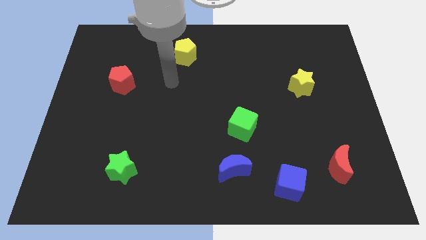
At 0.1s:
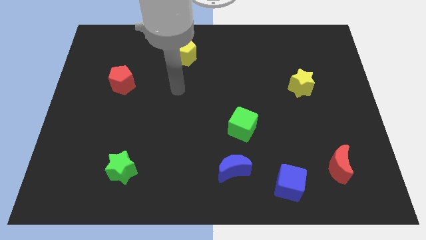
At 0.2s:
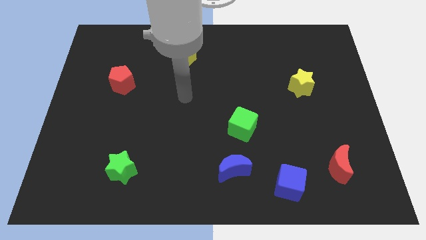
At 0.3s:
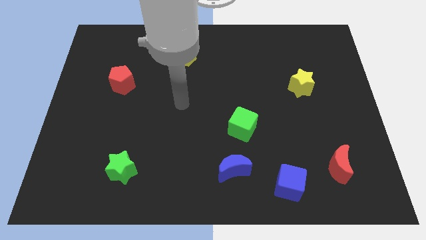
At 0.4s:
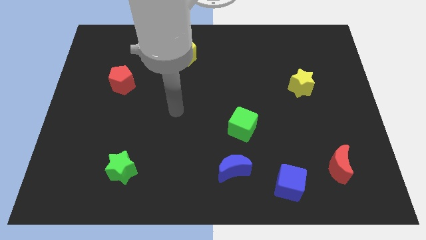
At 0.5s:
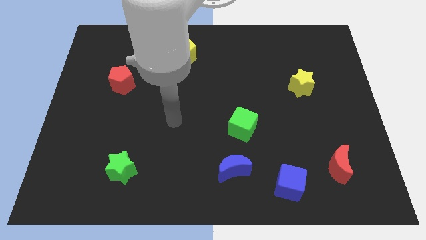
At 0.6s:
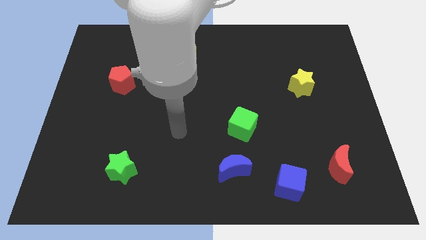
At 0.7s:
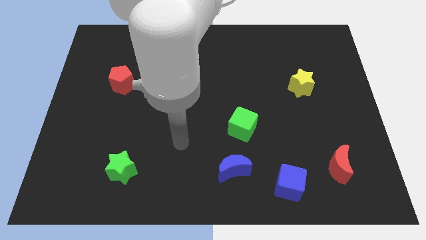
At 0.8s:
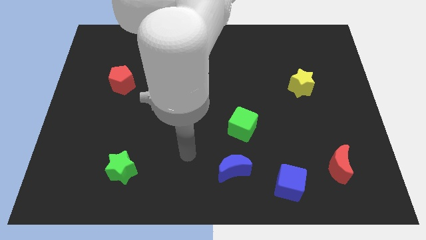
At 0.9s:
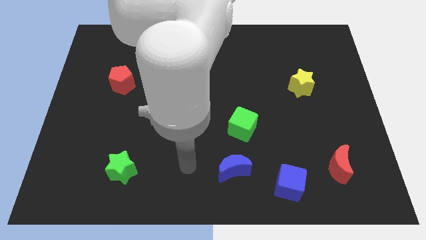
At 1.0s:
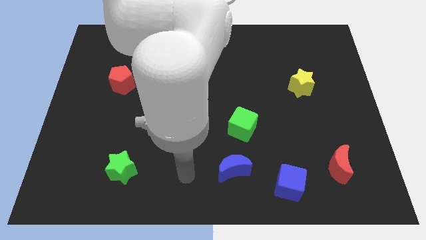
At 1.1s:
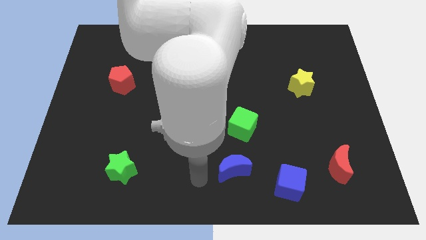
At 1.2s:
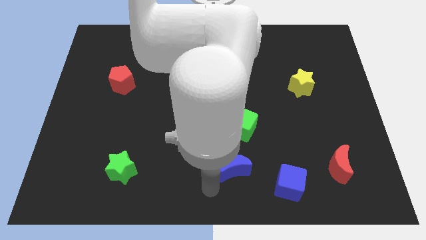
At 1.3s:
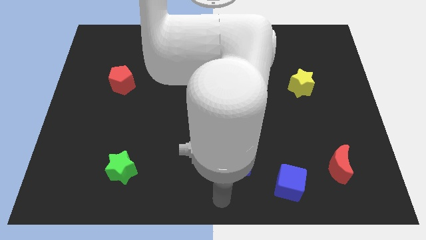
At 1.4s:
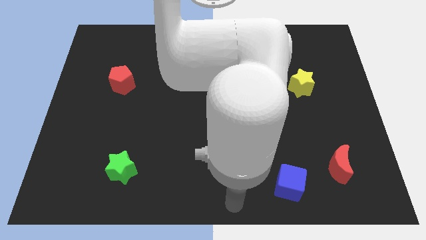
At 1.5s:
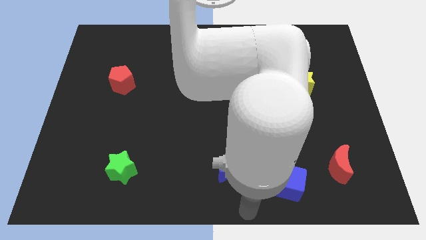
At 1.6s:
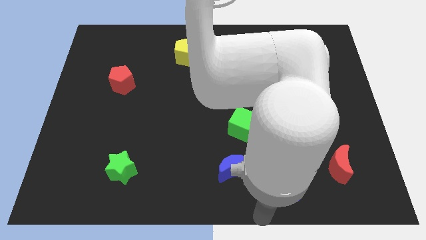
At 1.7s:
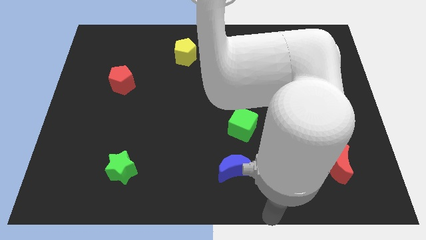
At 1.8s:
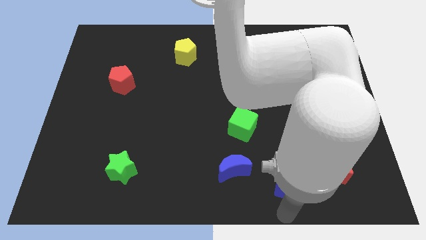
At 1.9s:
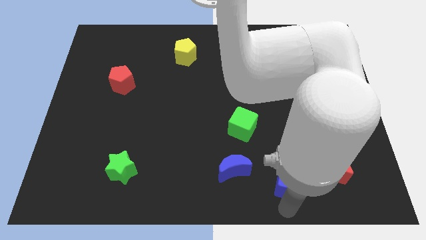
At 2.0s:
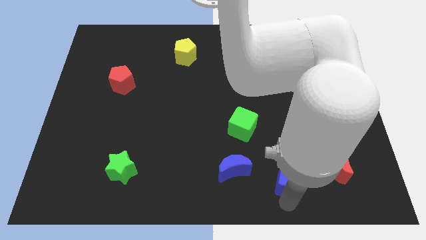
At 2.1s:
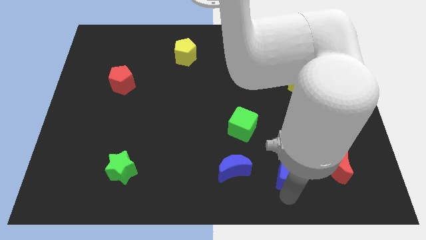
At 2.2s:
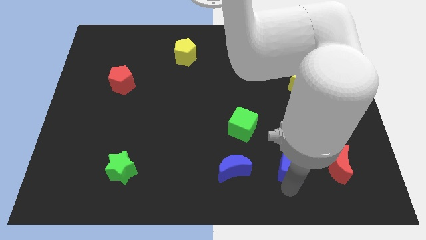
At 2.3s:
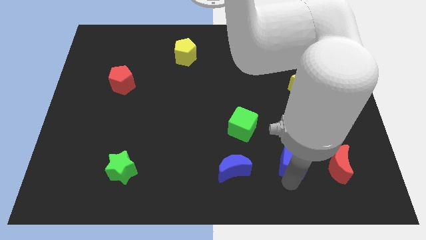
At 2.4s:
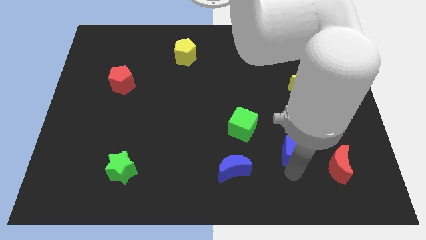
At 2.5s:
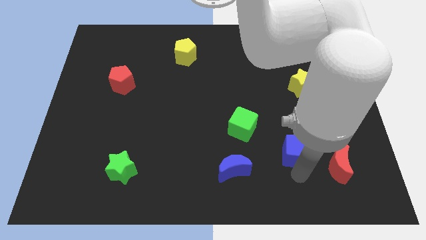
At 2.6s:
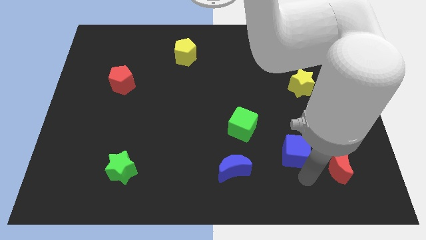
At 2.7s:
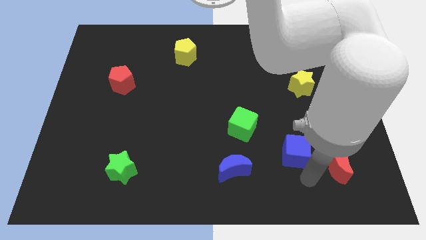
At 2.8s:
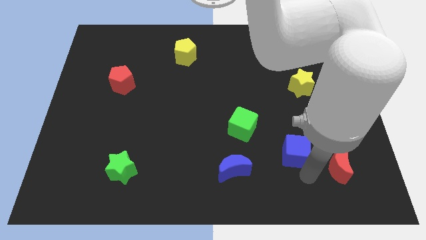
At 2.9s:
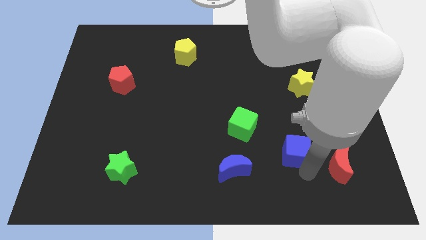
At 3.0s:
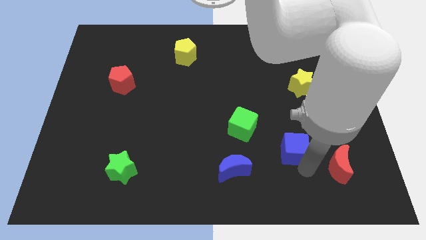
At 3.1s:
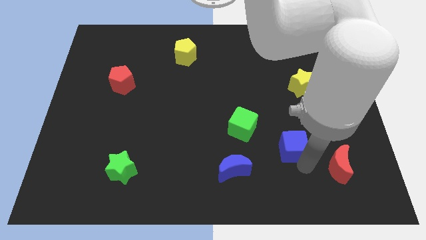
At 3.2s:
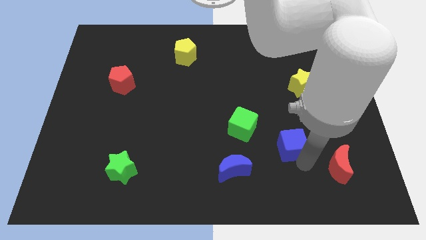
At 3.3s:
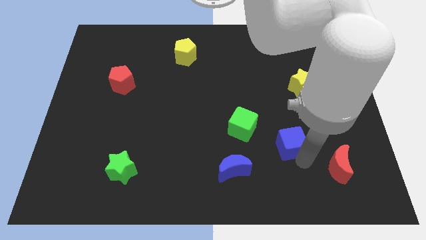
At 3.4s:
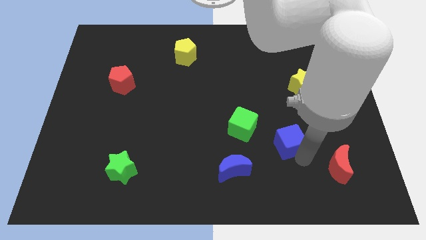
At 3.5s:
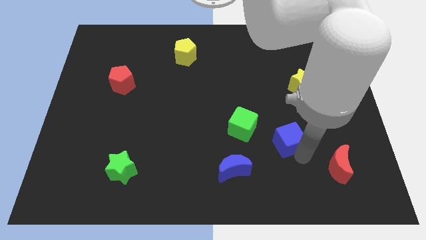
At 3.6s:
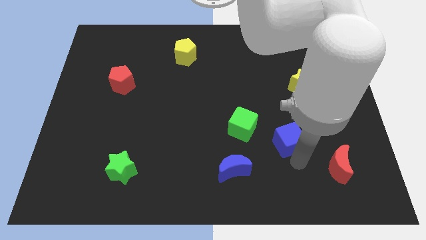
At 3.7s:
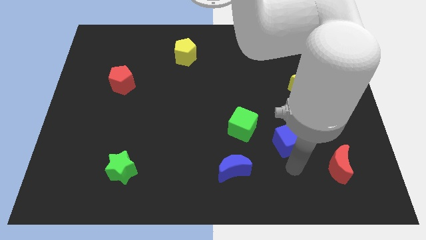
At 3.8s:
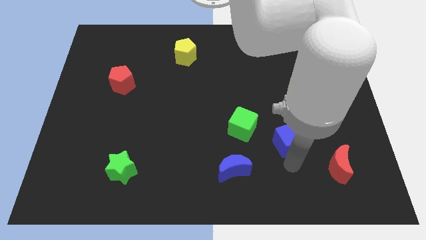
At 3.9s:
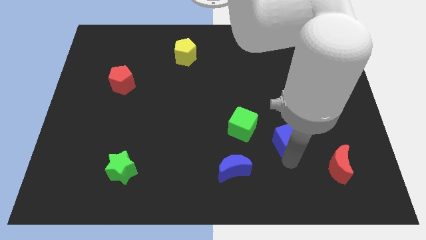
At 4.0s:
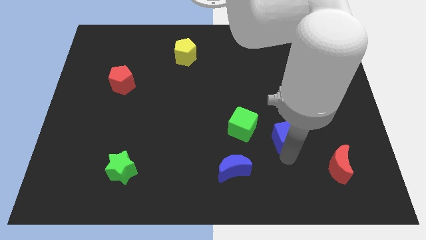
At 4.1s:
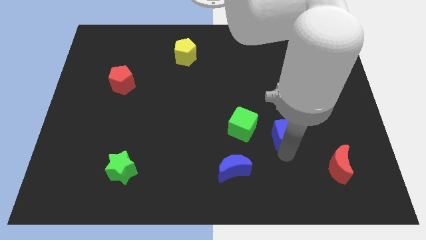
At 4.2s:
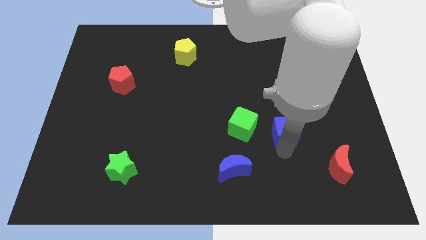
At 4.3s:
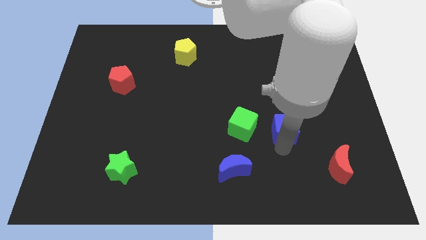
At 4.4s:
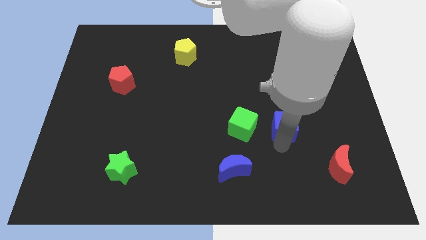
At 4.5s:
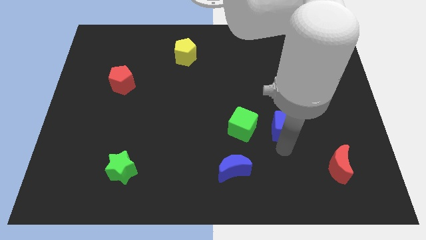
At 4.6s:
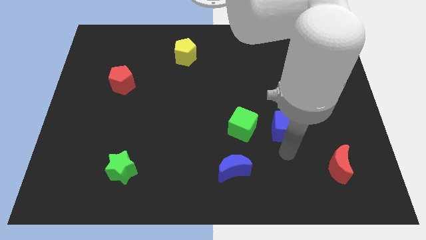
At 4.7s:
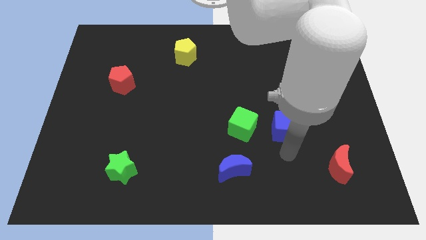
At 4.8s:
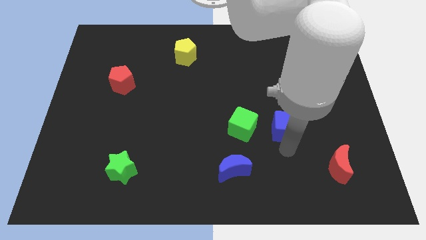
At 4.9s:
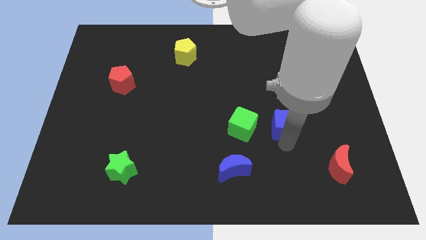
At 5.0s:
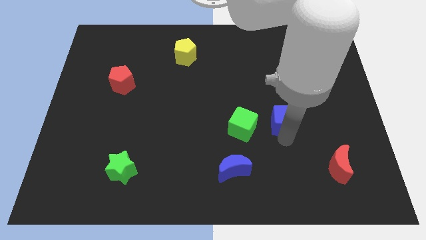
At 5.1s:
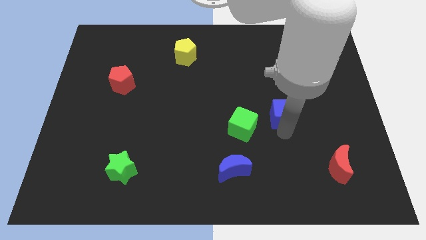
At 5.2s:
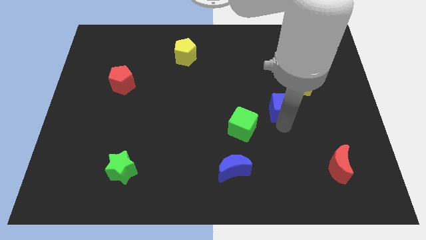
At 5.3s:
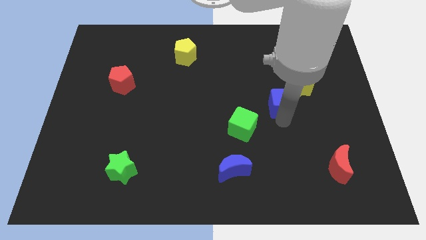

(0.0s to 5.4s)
move the blue cube up

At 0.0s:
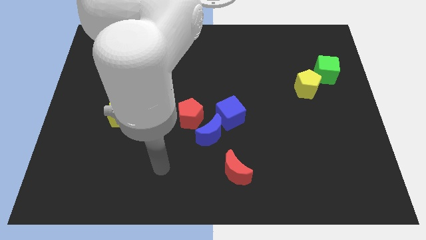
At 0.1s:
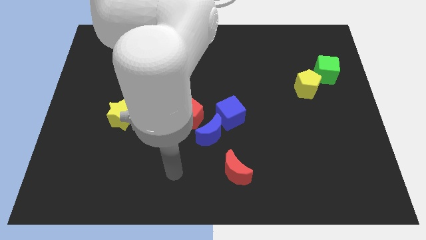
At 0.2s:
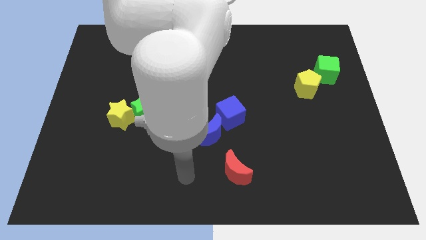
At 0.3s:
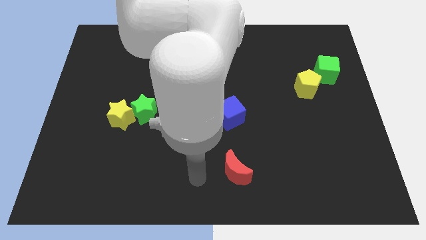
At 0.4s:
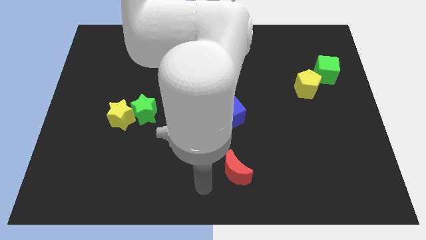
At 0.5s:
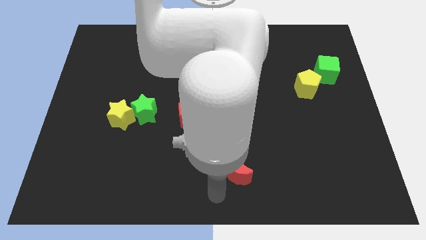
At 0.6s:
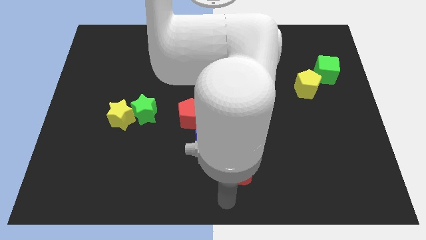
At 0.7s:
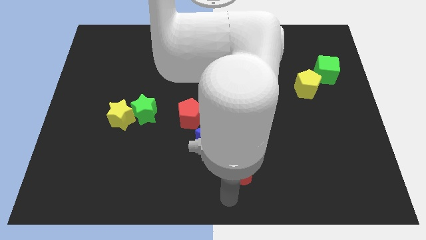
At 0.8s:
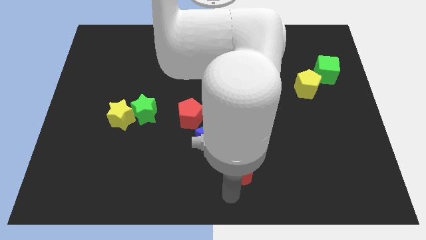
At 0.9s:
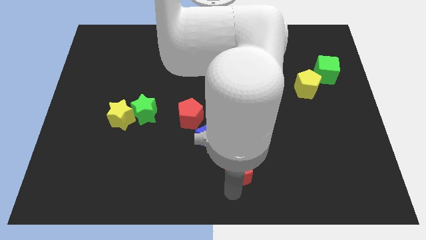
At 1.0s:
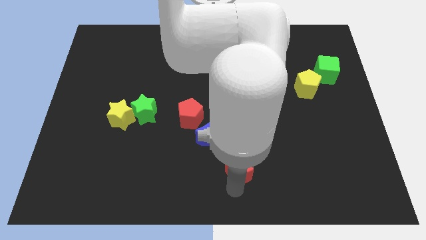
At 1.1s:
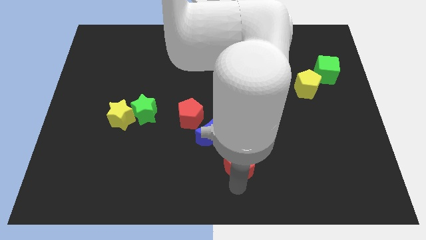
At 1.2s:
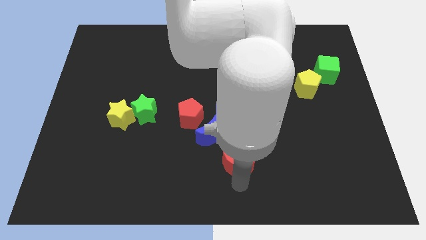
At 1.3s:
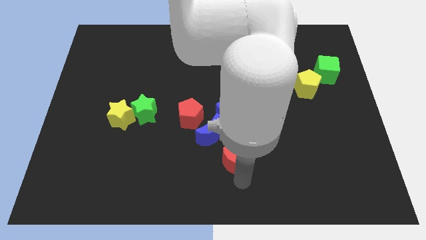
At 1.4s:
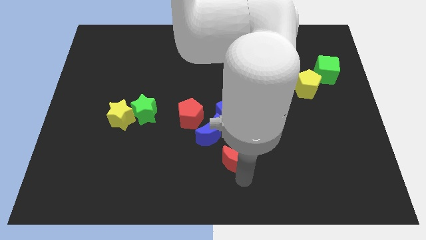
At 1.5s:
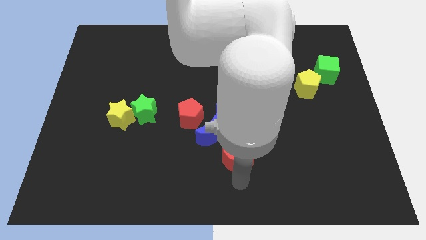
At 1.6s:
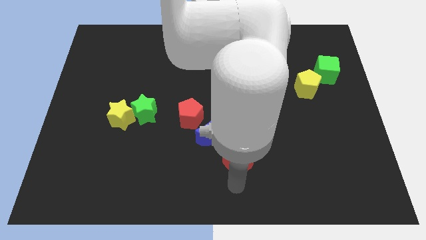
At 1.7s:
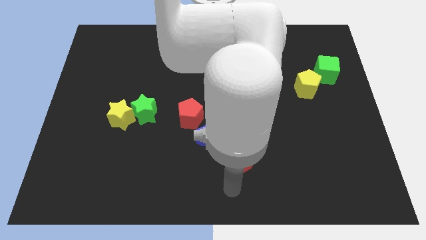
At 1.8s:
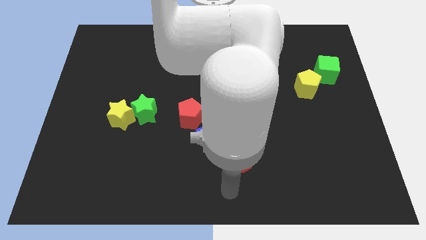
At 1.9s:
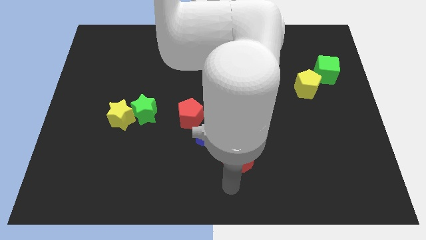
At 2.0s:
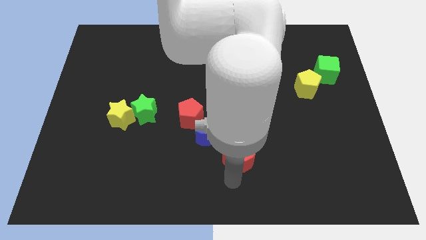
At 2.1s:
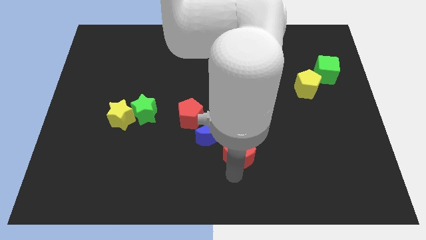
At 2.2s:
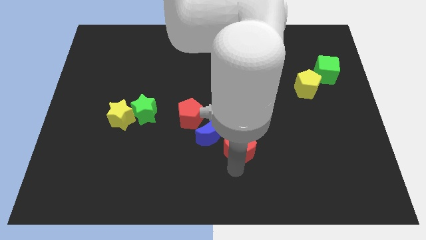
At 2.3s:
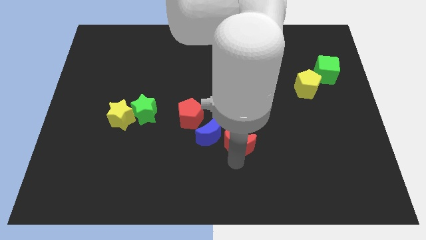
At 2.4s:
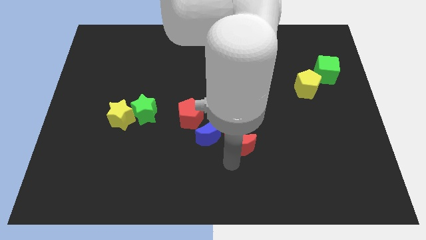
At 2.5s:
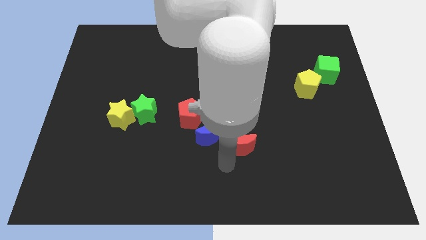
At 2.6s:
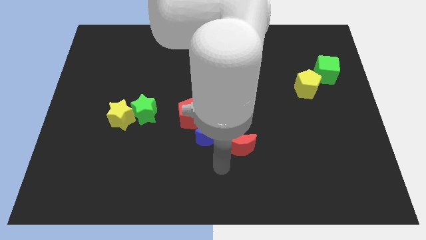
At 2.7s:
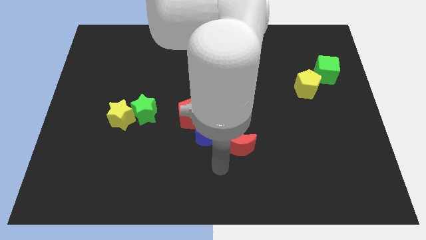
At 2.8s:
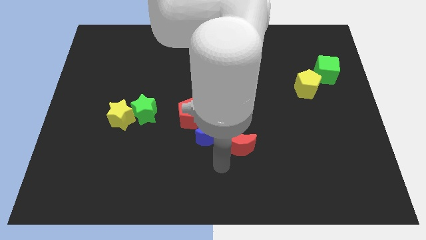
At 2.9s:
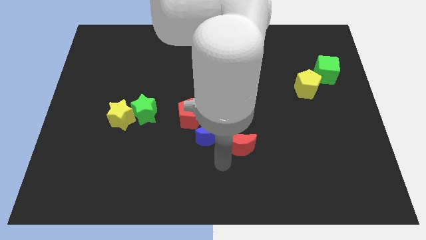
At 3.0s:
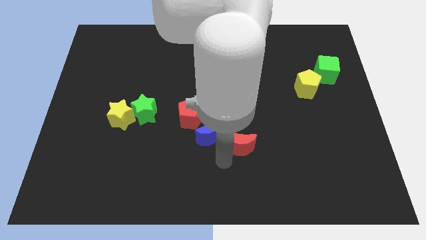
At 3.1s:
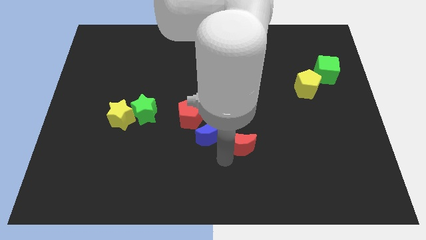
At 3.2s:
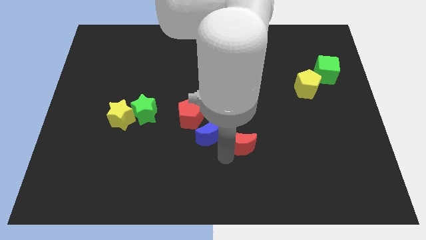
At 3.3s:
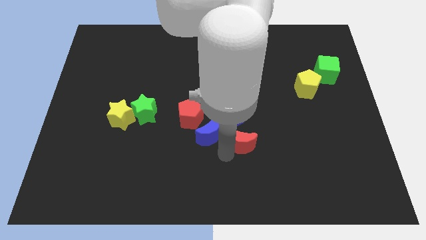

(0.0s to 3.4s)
move the red moon somewhat upwards

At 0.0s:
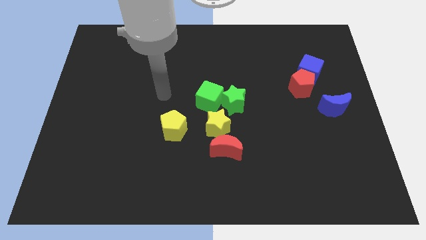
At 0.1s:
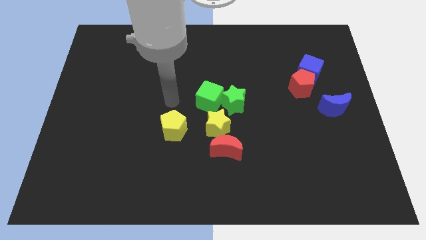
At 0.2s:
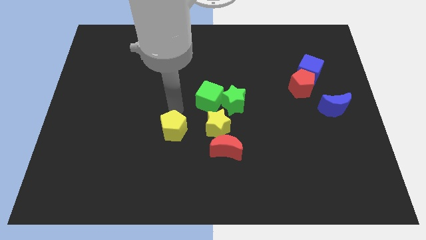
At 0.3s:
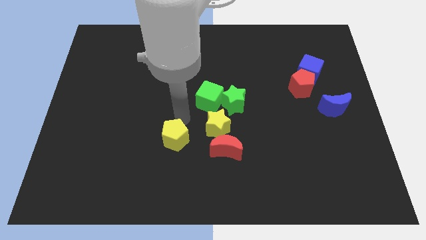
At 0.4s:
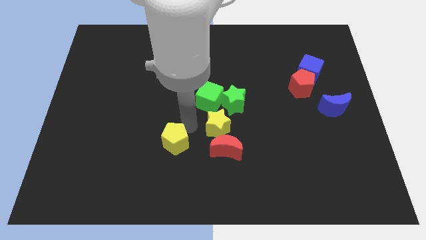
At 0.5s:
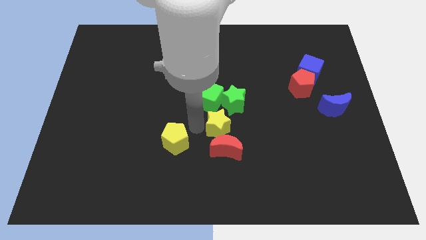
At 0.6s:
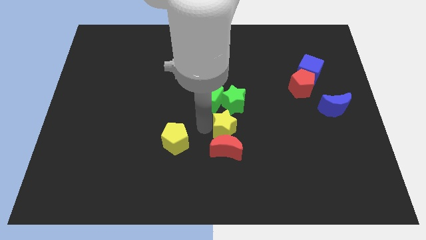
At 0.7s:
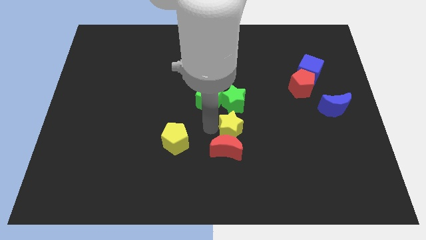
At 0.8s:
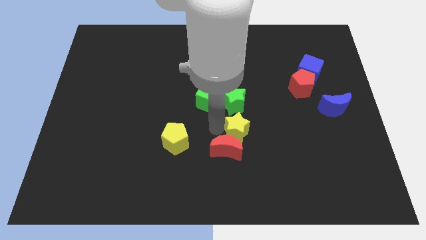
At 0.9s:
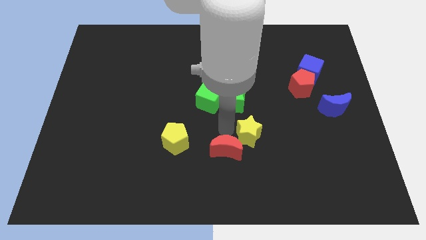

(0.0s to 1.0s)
slide the yellow star a little bit right
